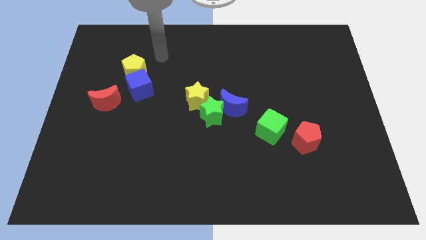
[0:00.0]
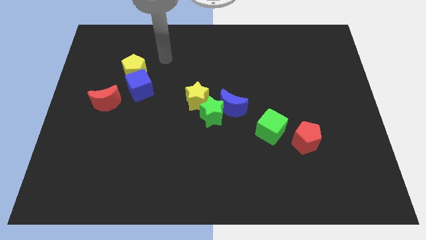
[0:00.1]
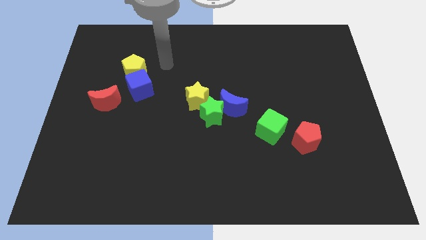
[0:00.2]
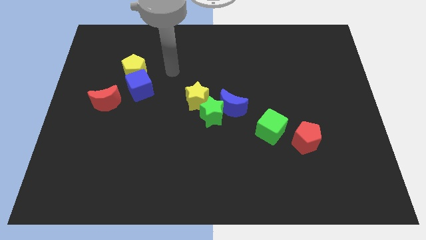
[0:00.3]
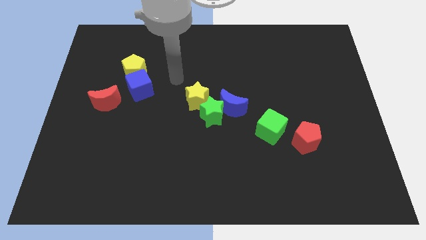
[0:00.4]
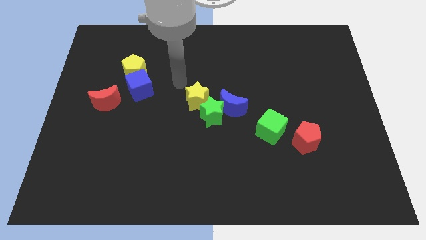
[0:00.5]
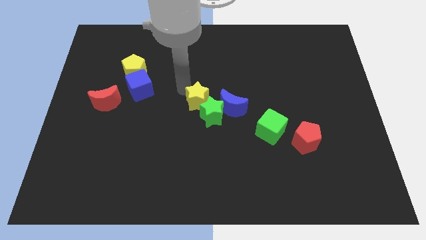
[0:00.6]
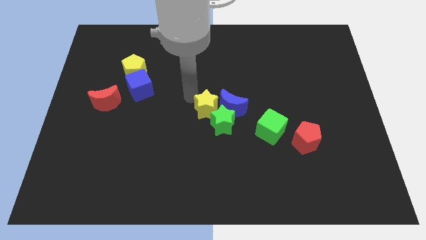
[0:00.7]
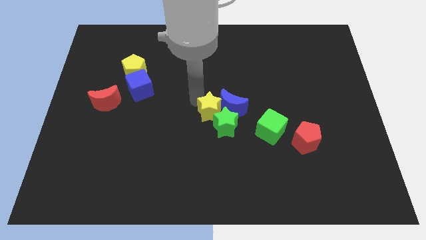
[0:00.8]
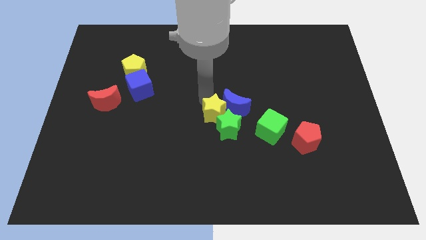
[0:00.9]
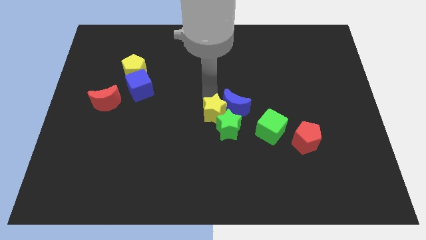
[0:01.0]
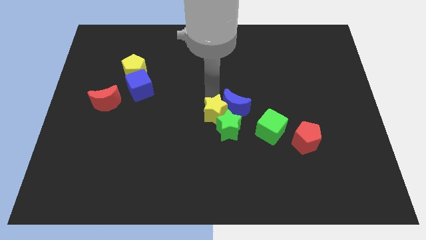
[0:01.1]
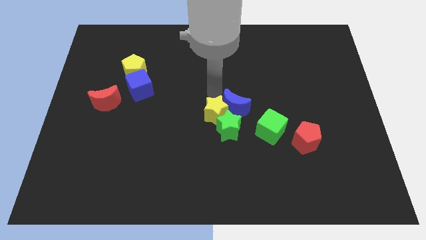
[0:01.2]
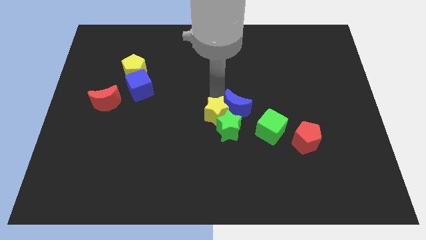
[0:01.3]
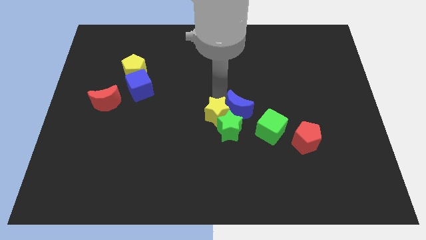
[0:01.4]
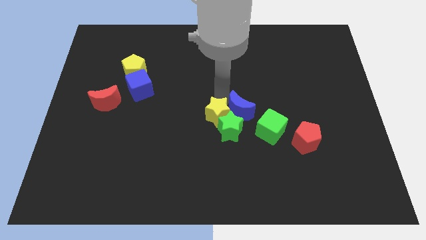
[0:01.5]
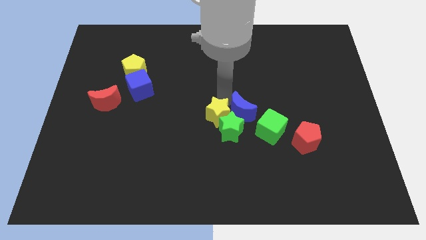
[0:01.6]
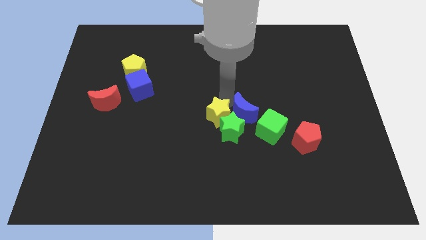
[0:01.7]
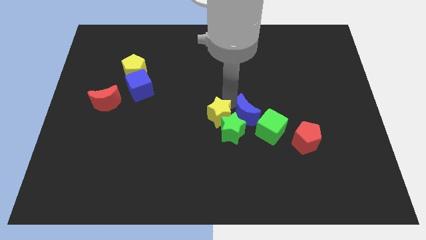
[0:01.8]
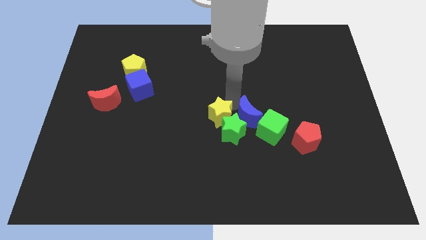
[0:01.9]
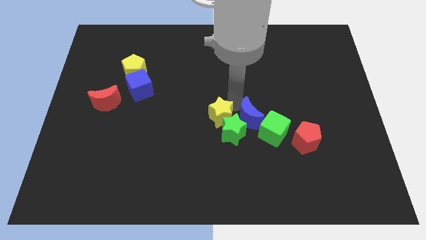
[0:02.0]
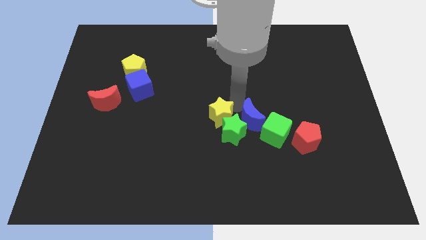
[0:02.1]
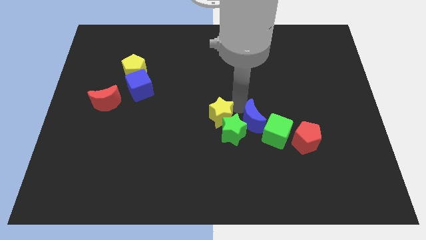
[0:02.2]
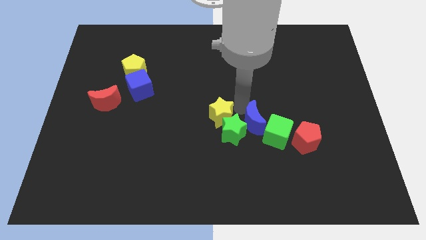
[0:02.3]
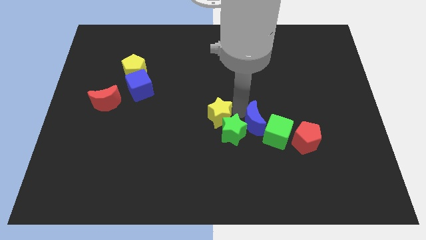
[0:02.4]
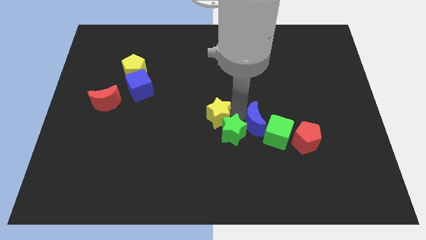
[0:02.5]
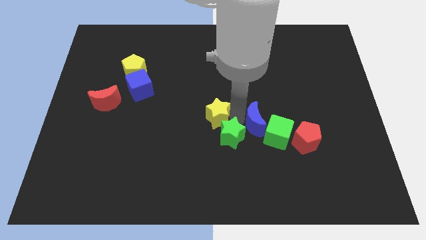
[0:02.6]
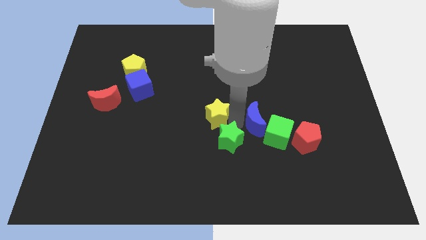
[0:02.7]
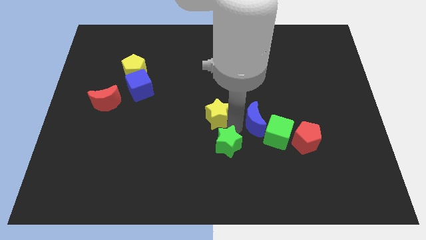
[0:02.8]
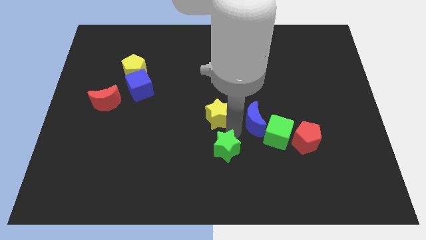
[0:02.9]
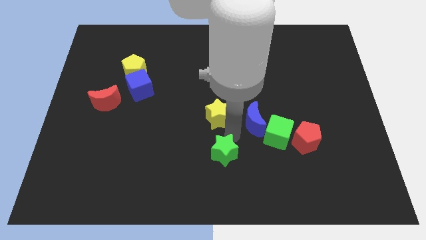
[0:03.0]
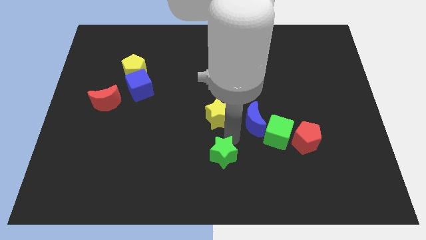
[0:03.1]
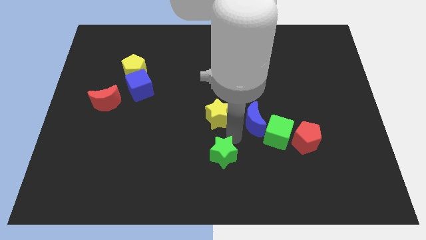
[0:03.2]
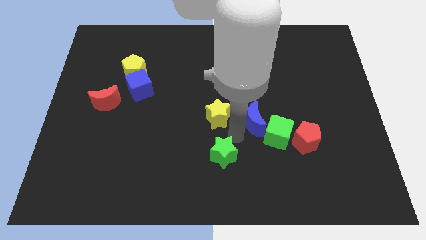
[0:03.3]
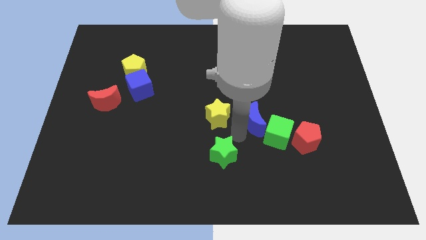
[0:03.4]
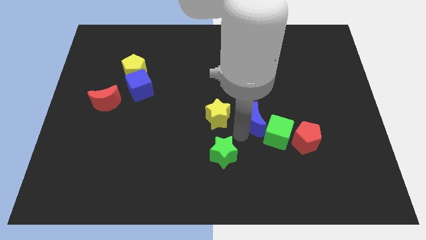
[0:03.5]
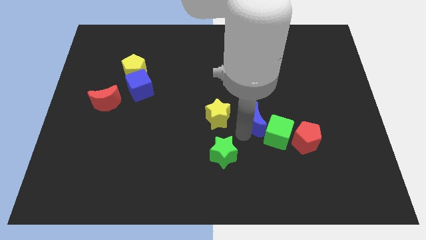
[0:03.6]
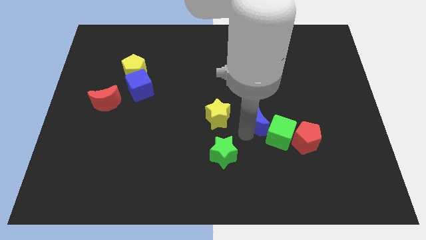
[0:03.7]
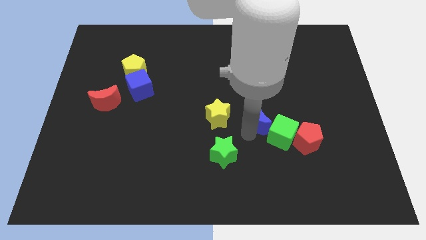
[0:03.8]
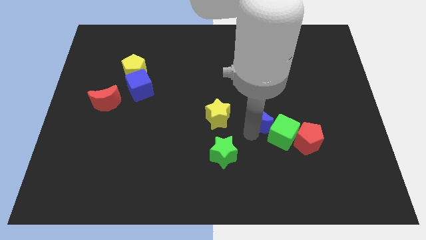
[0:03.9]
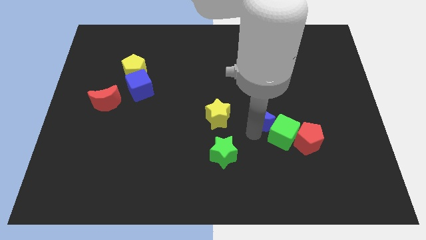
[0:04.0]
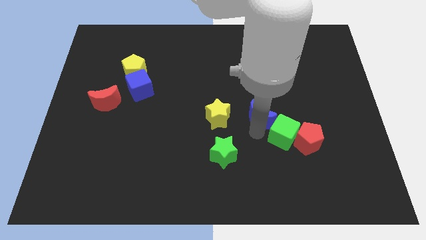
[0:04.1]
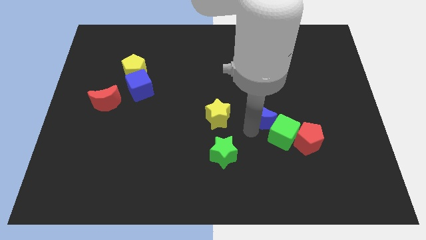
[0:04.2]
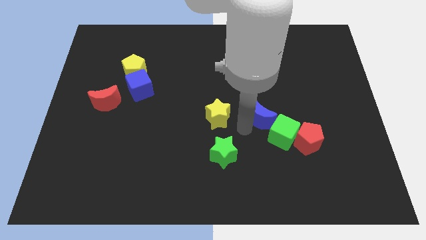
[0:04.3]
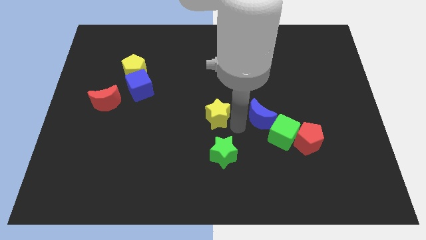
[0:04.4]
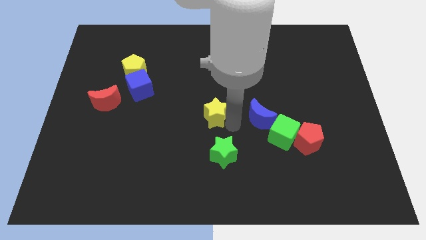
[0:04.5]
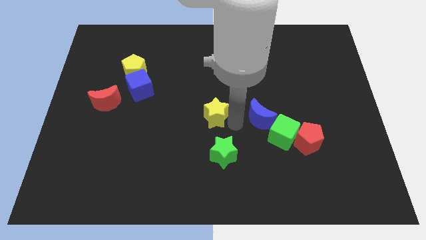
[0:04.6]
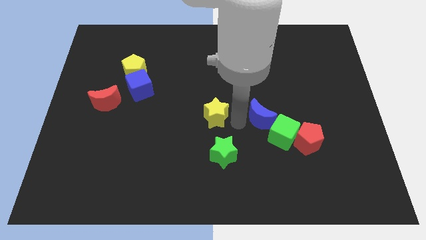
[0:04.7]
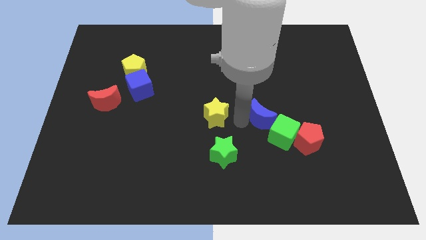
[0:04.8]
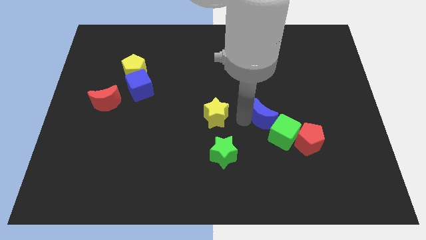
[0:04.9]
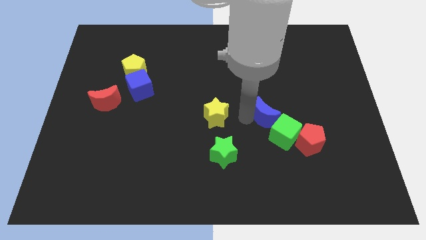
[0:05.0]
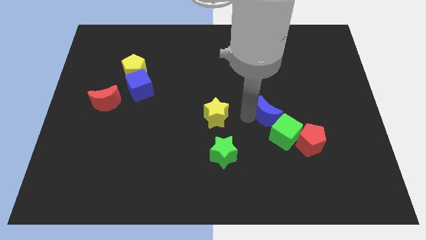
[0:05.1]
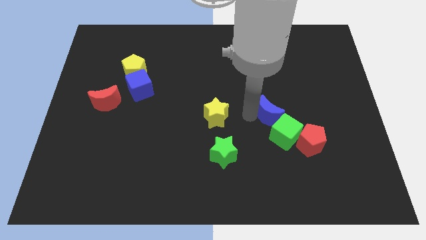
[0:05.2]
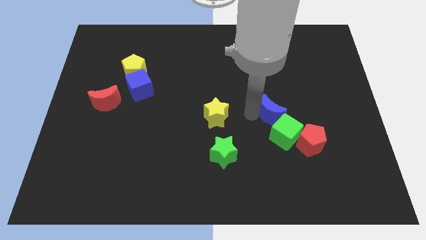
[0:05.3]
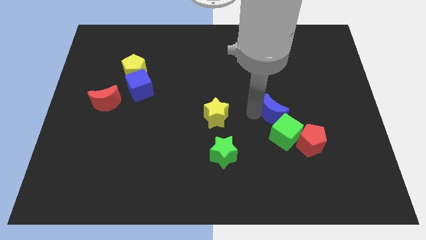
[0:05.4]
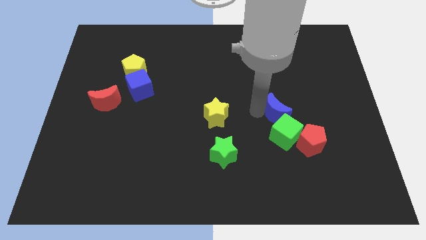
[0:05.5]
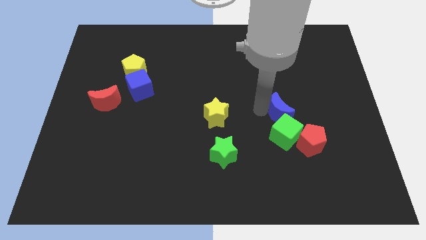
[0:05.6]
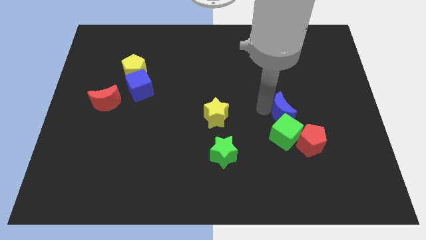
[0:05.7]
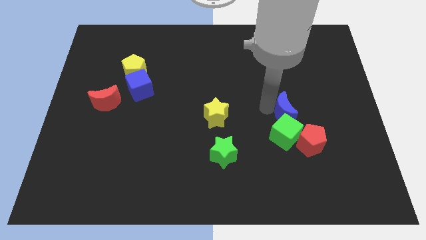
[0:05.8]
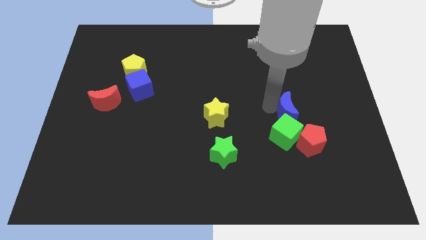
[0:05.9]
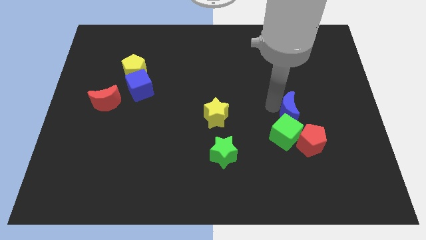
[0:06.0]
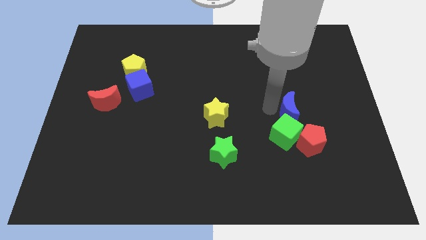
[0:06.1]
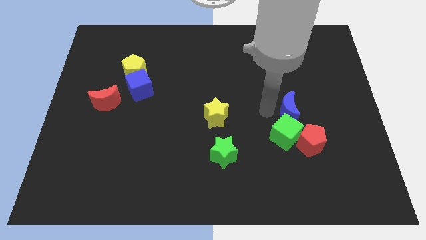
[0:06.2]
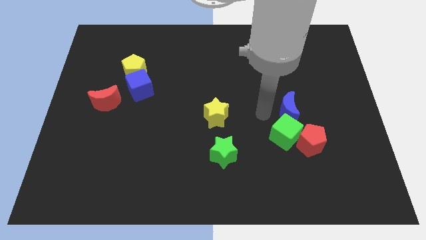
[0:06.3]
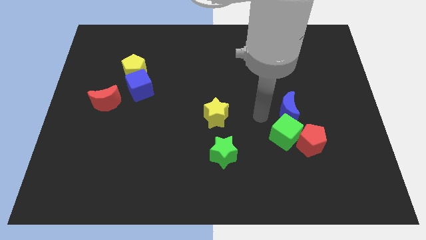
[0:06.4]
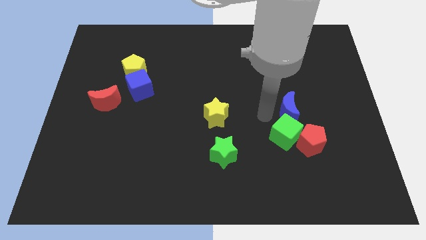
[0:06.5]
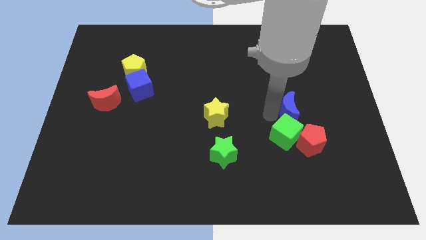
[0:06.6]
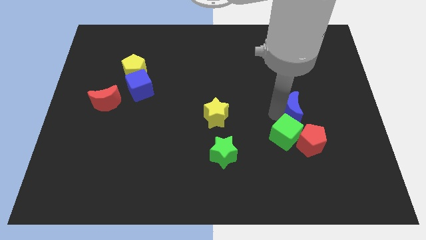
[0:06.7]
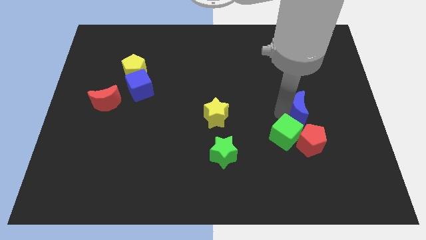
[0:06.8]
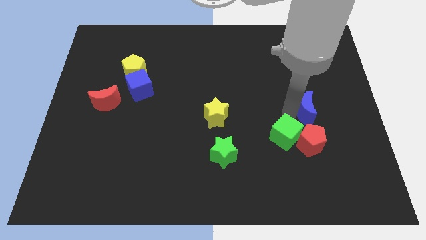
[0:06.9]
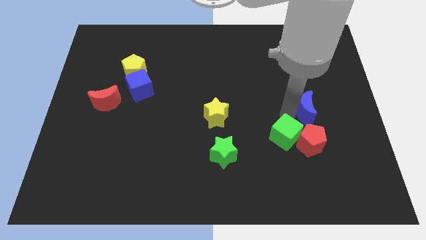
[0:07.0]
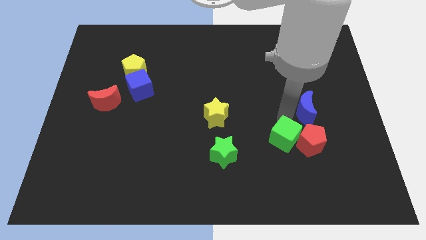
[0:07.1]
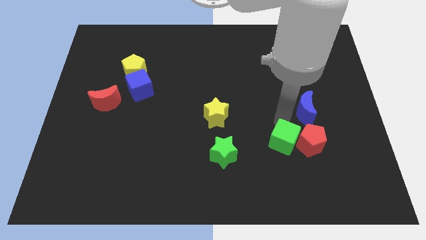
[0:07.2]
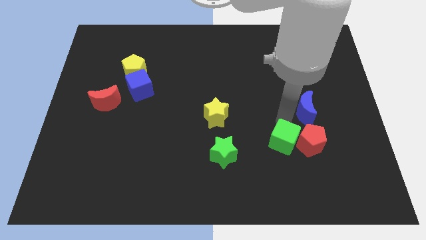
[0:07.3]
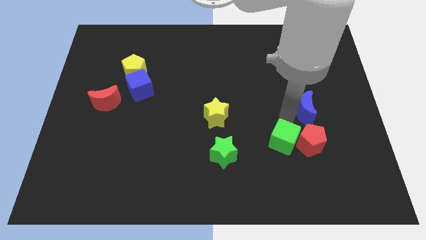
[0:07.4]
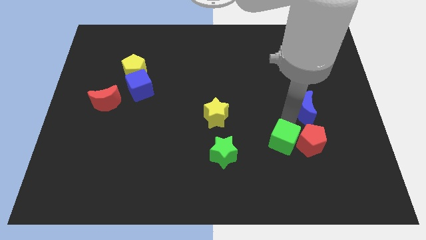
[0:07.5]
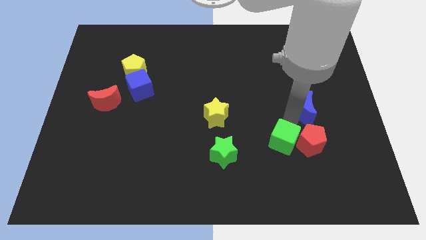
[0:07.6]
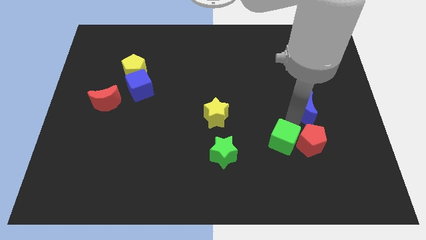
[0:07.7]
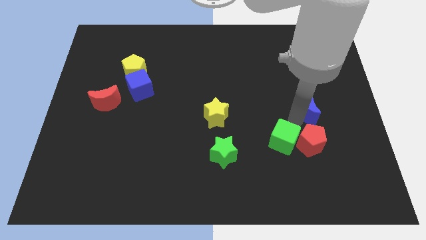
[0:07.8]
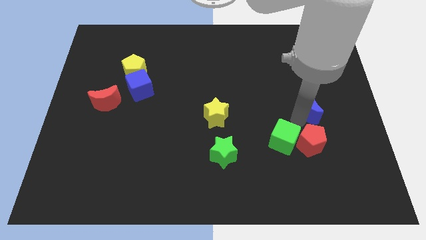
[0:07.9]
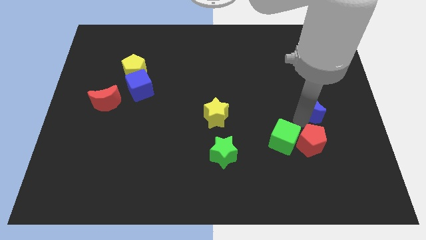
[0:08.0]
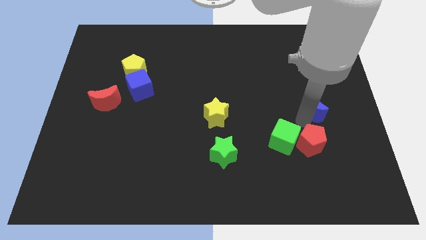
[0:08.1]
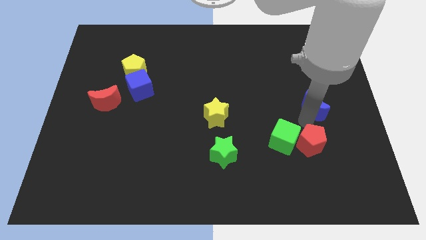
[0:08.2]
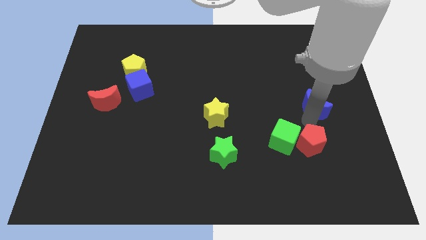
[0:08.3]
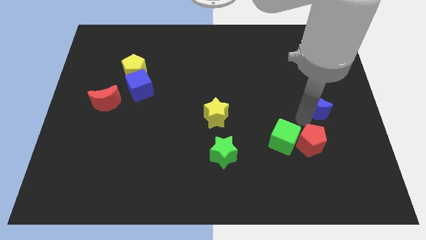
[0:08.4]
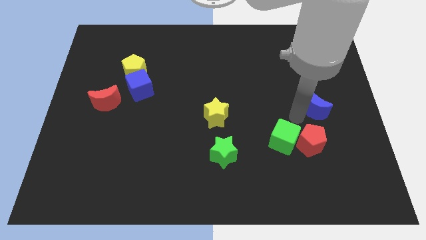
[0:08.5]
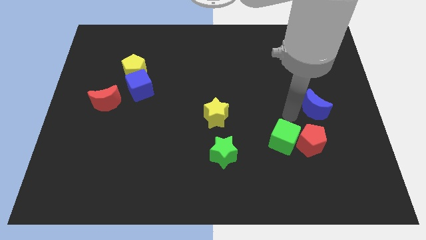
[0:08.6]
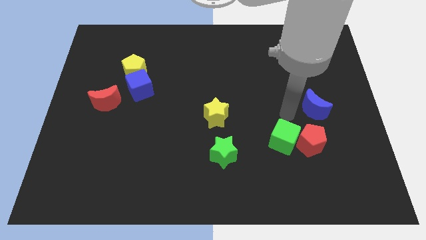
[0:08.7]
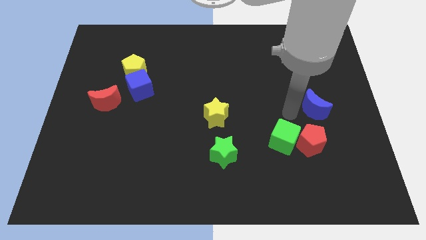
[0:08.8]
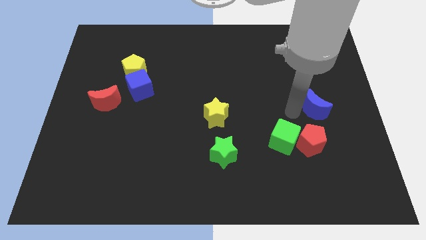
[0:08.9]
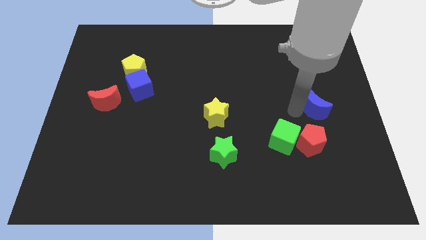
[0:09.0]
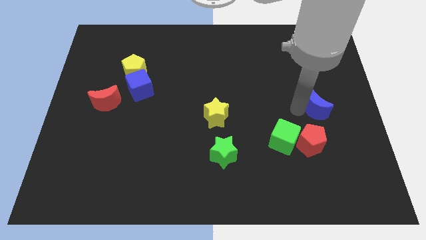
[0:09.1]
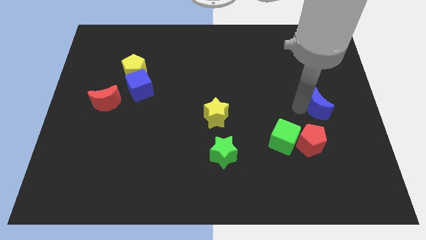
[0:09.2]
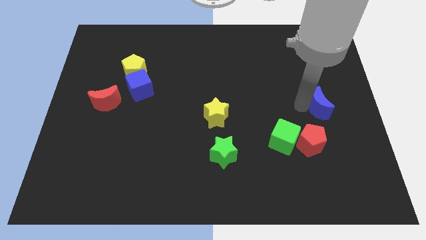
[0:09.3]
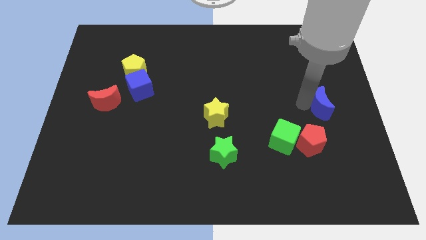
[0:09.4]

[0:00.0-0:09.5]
push the blue moon to the right side
